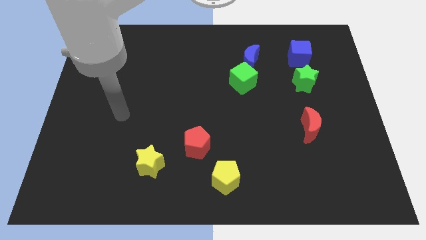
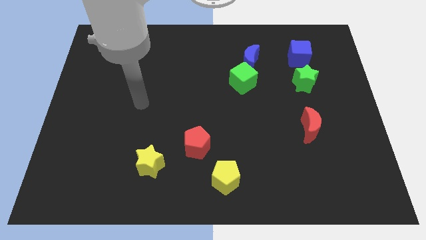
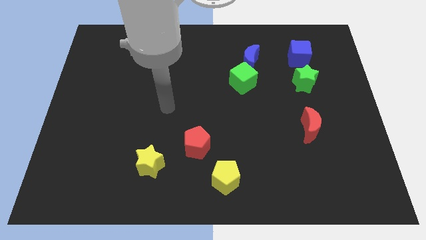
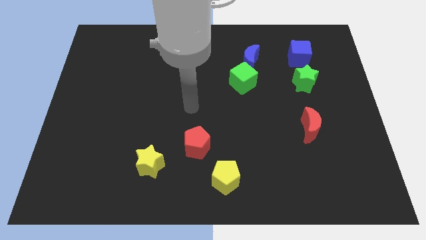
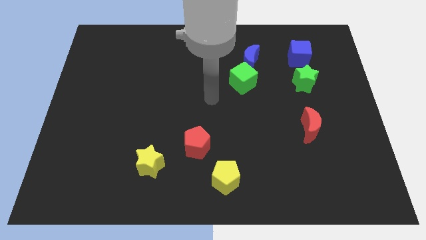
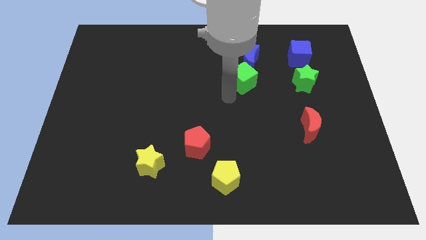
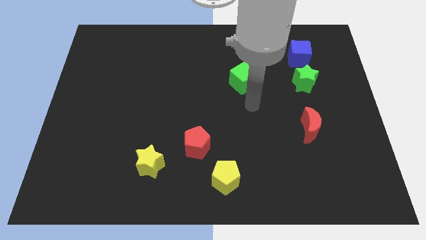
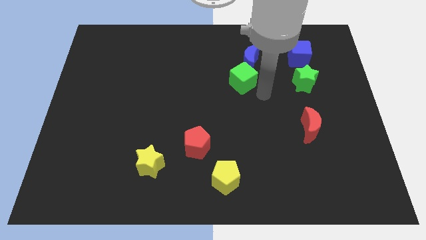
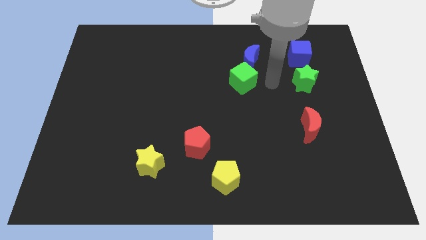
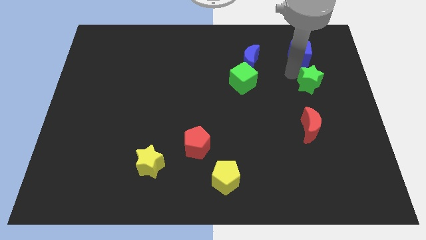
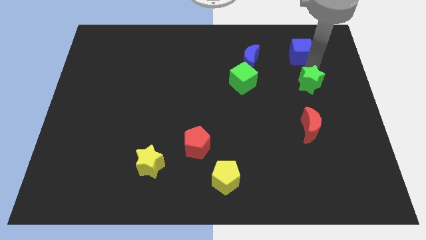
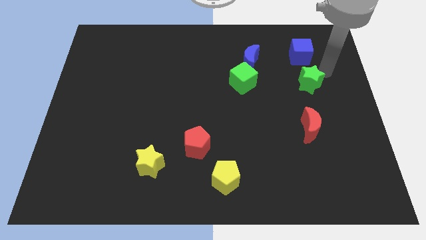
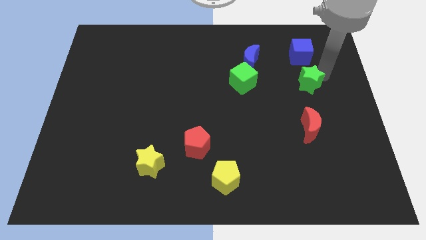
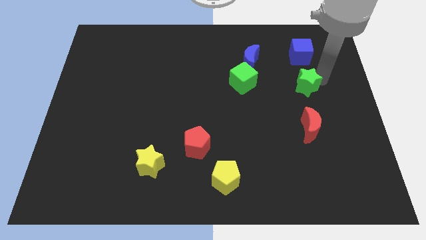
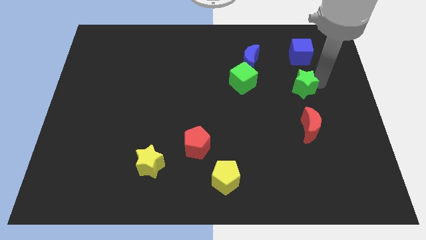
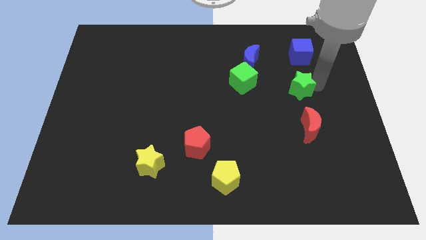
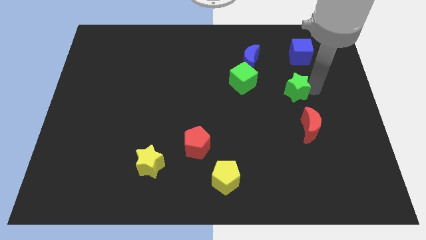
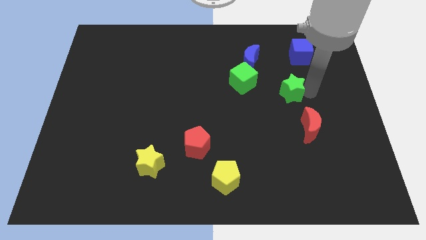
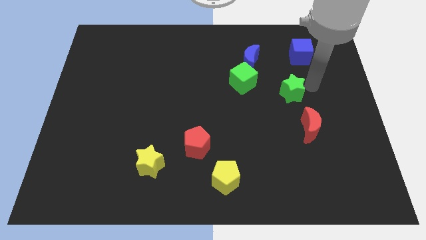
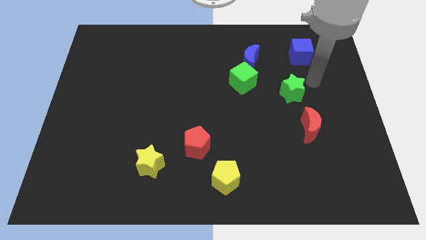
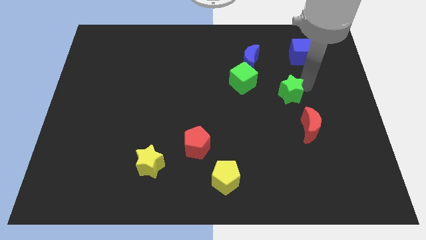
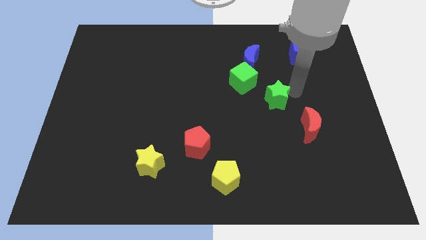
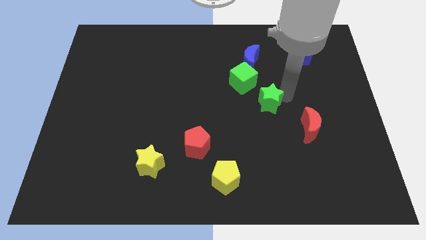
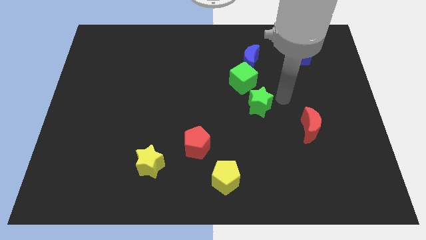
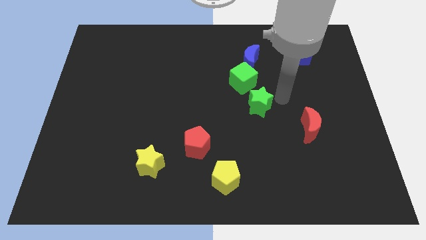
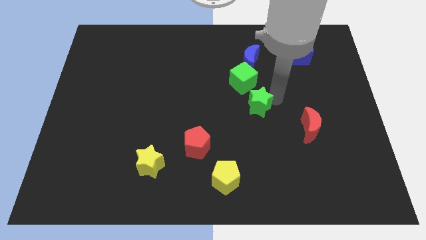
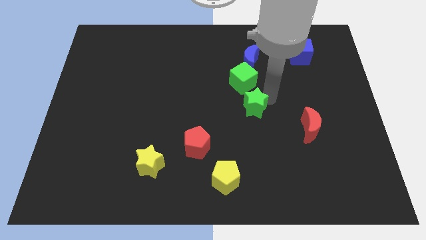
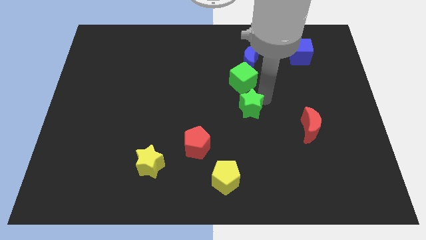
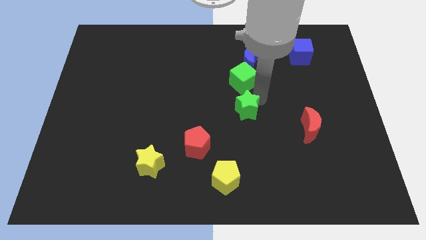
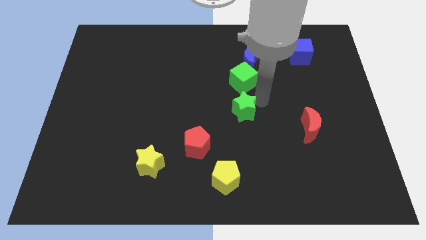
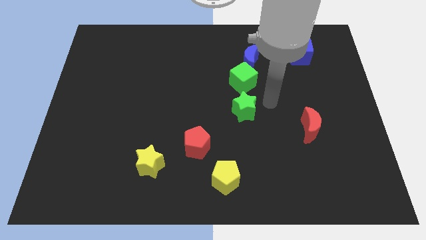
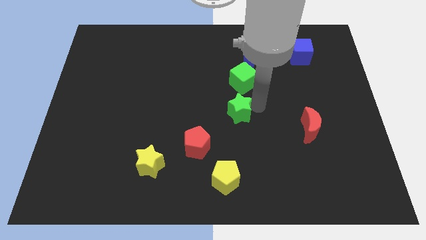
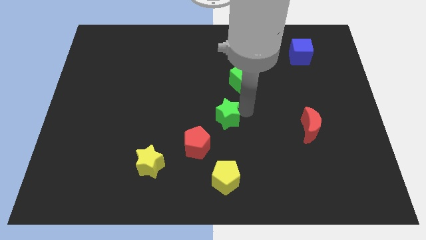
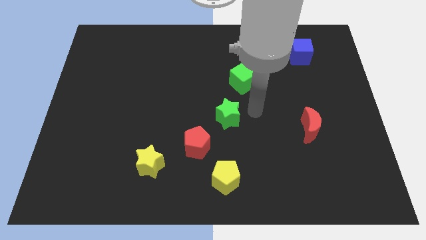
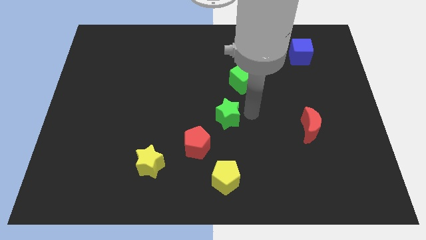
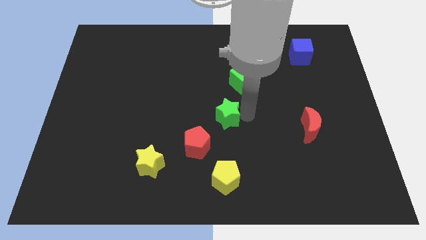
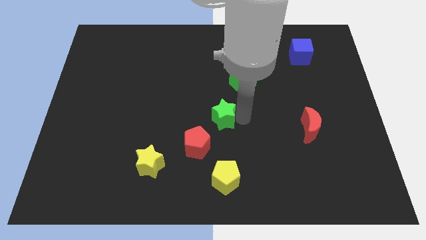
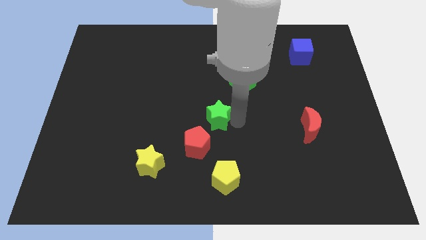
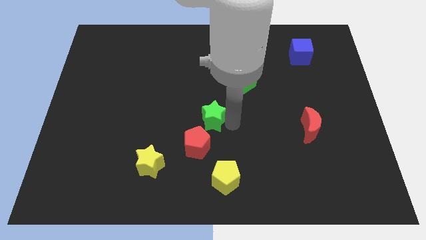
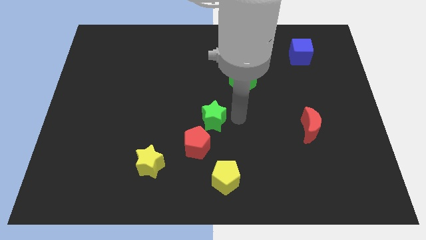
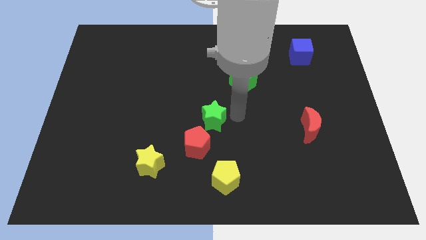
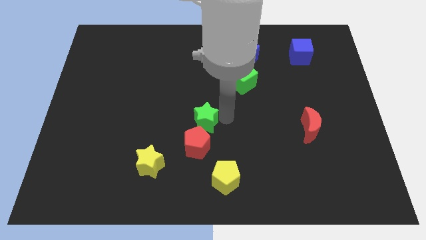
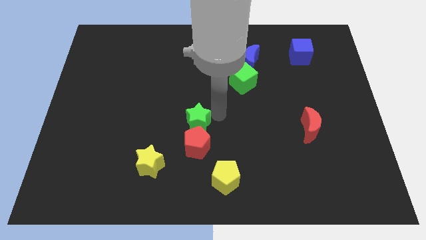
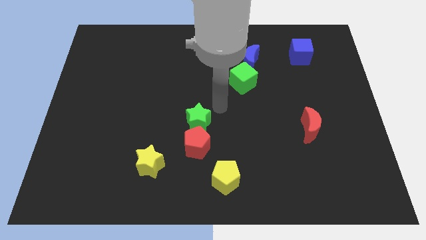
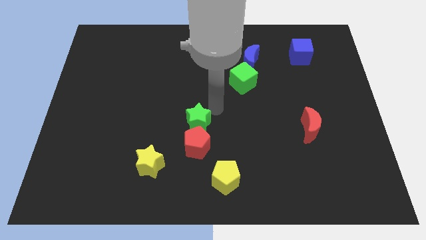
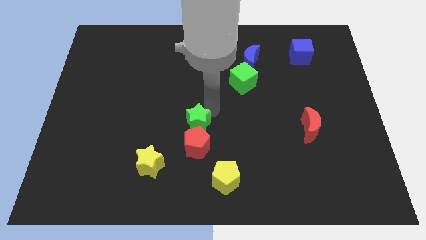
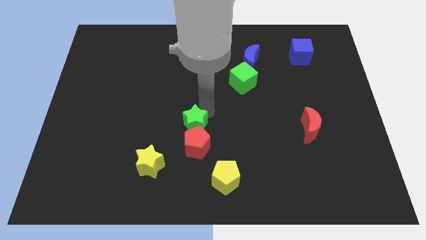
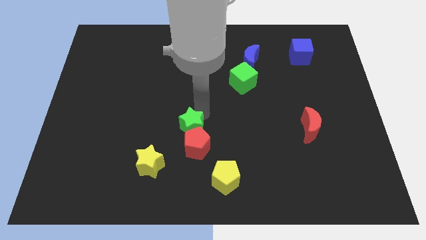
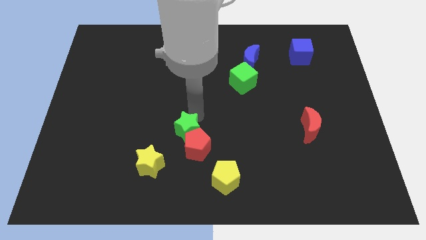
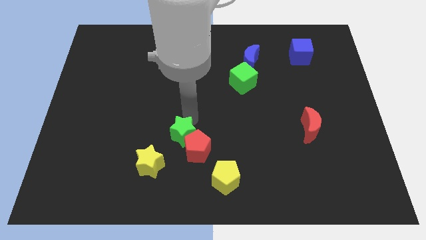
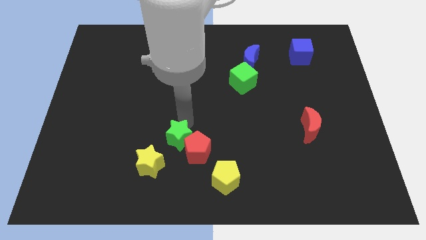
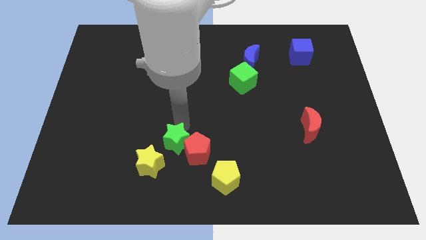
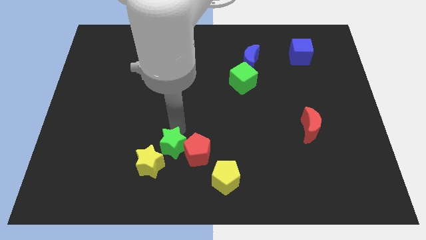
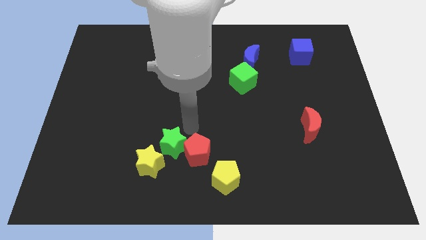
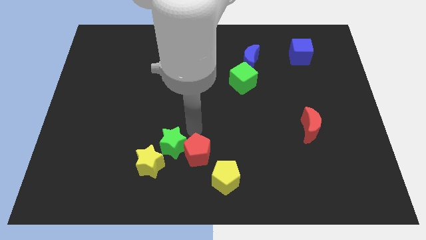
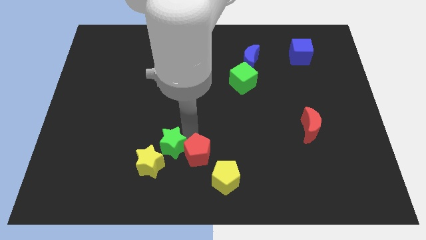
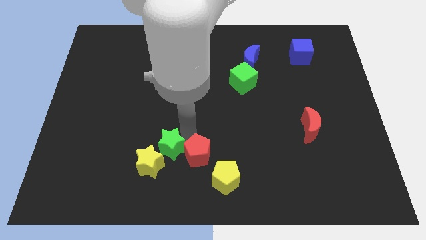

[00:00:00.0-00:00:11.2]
push the green star next to the yellow star

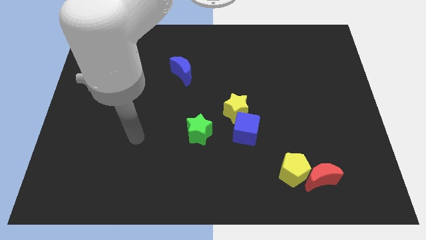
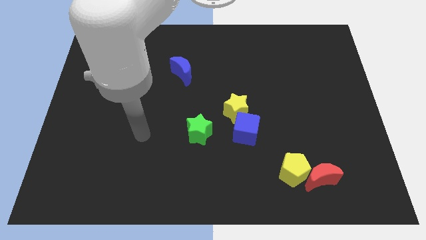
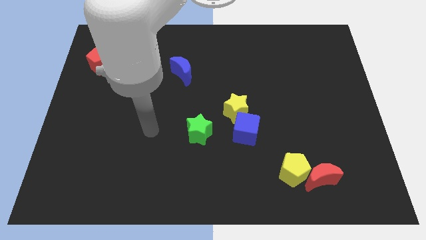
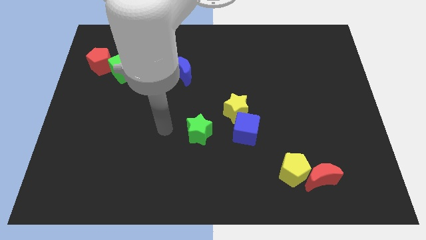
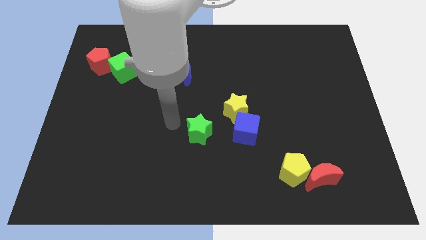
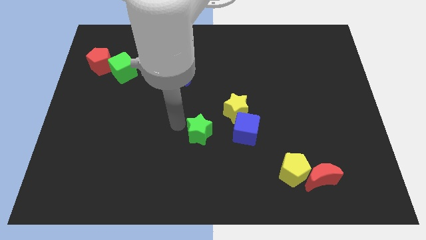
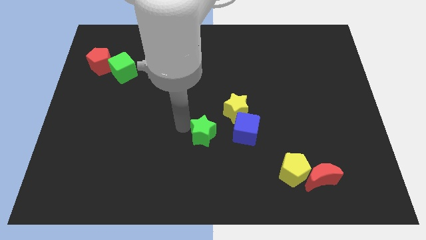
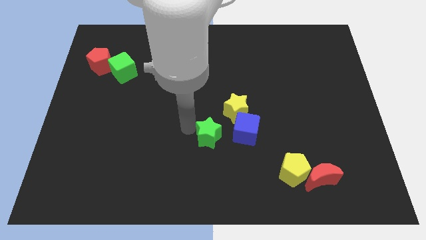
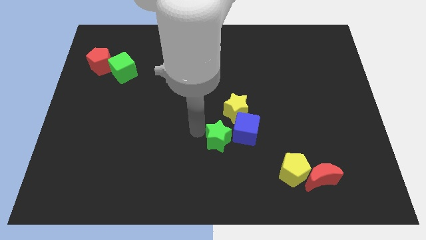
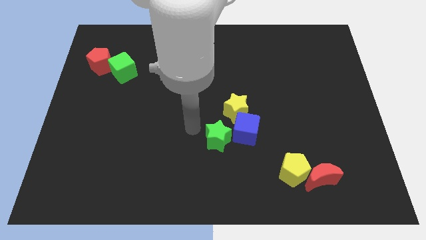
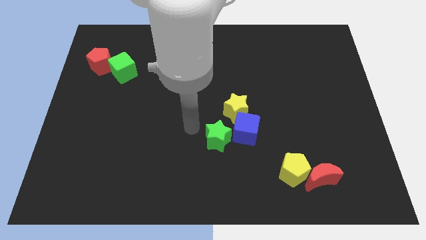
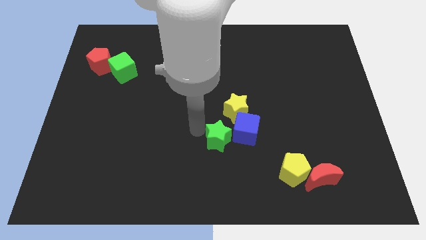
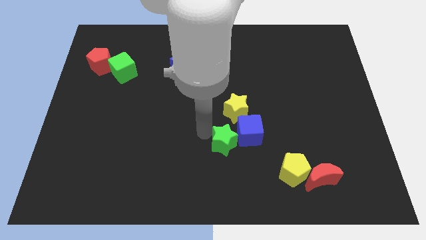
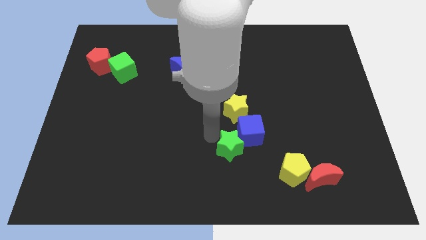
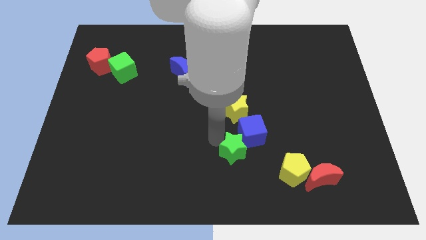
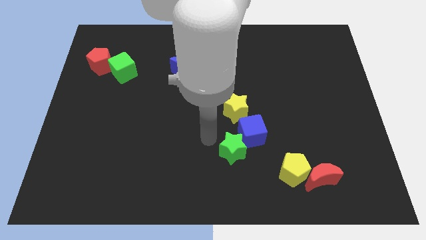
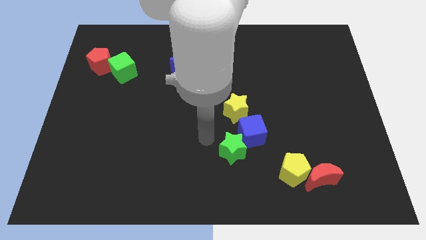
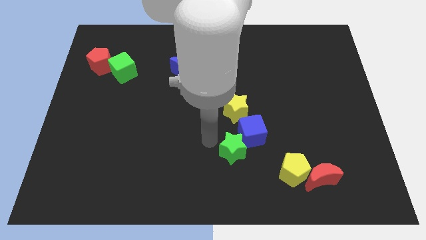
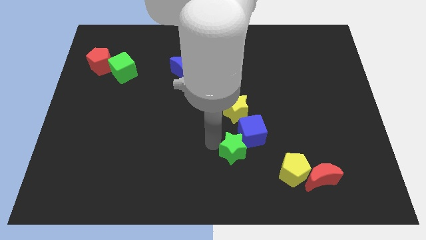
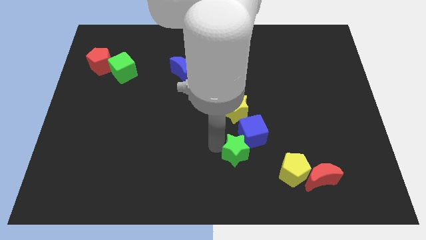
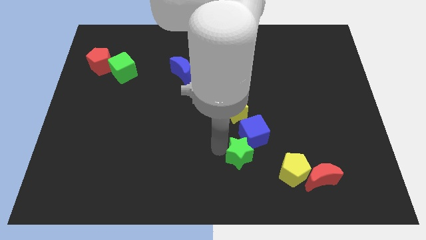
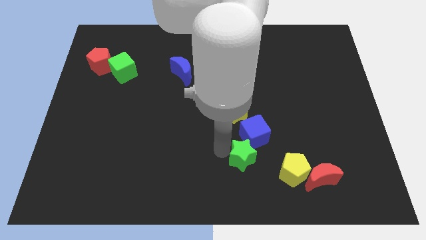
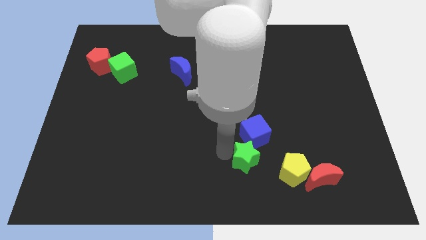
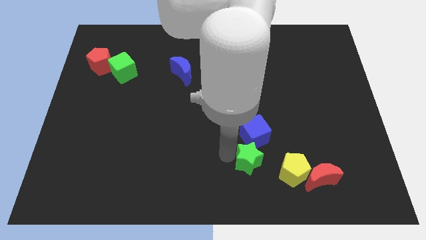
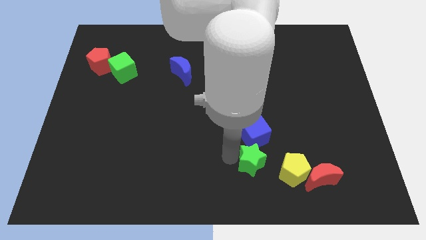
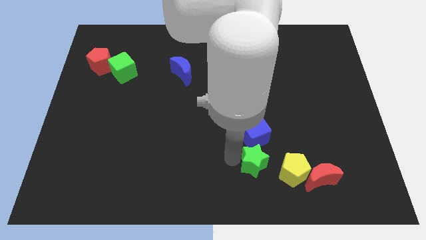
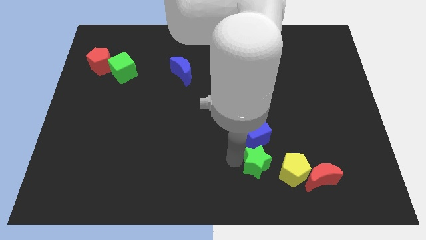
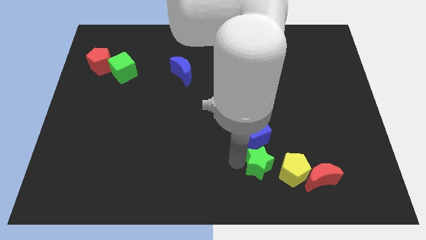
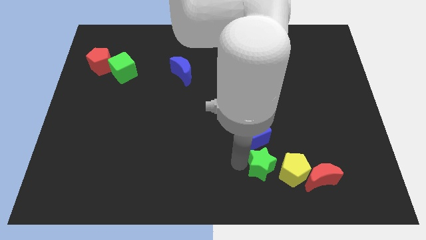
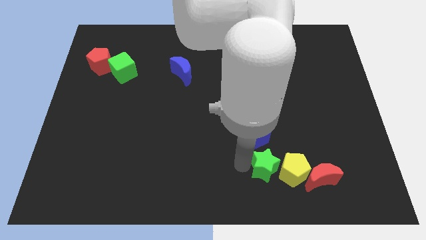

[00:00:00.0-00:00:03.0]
move the green star close to the yellow pentagon
